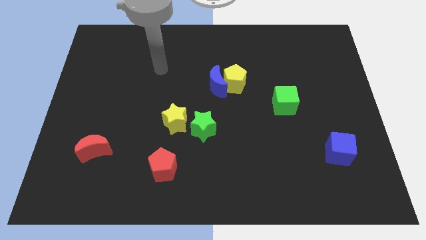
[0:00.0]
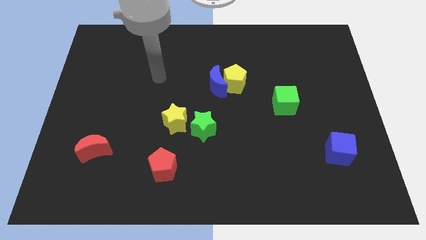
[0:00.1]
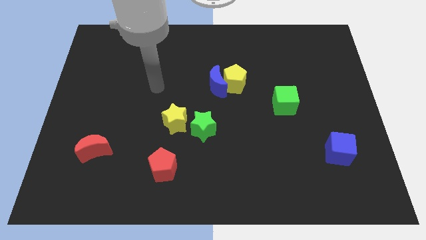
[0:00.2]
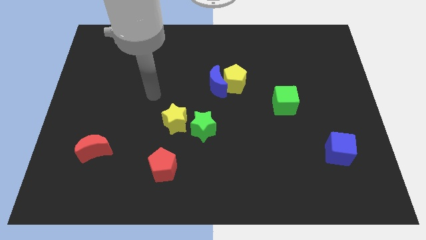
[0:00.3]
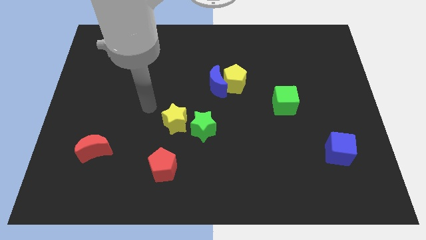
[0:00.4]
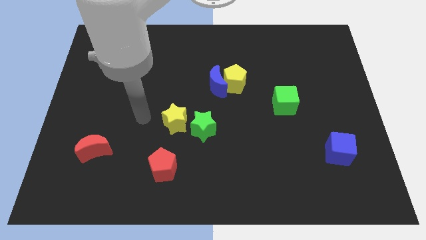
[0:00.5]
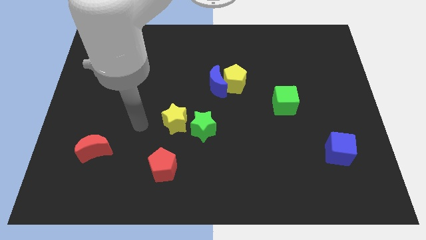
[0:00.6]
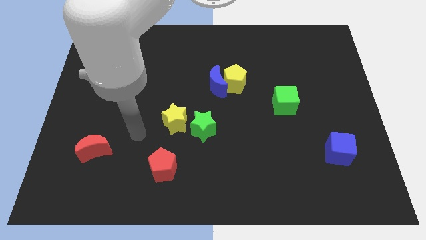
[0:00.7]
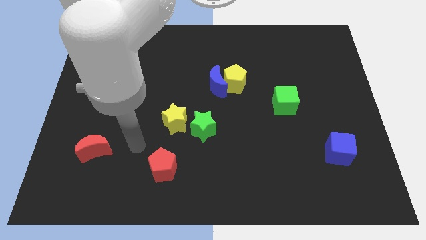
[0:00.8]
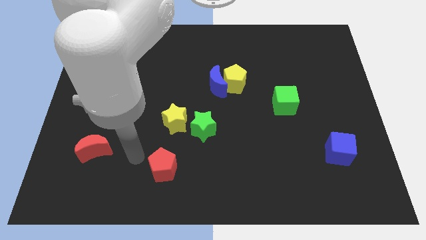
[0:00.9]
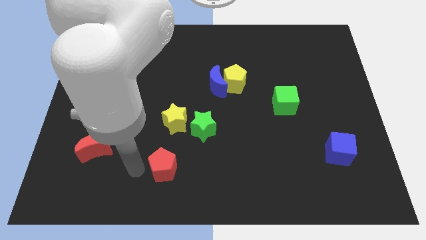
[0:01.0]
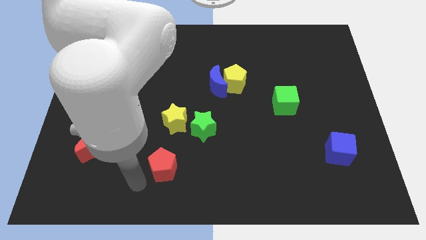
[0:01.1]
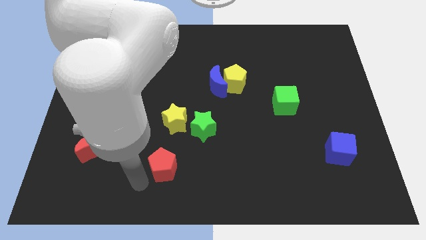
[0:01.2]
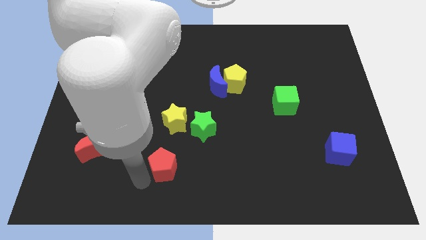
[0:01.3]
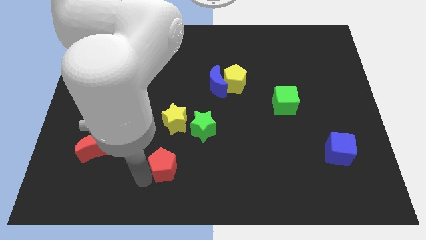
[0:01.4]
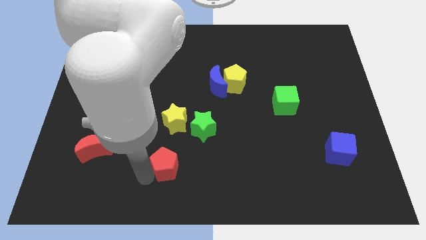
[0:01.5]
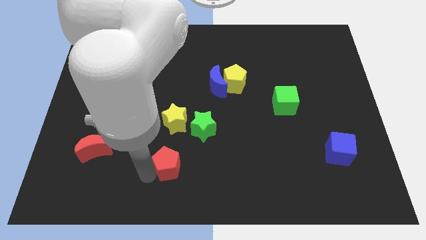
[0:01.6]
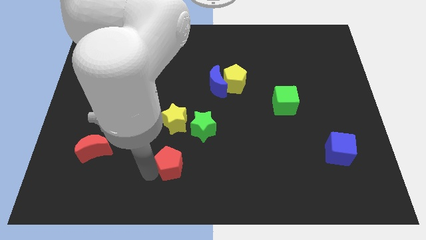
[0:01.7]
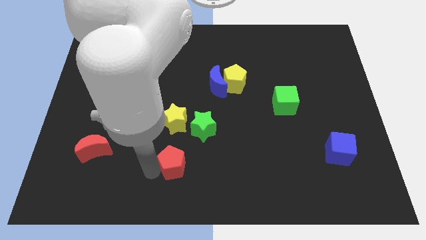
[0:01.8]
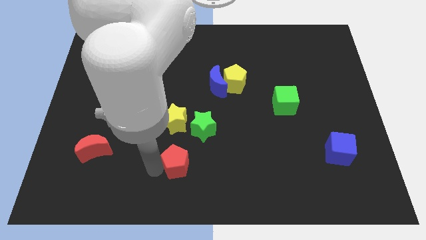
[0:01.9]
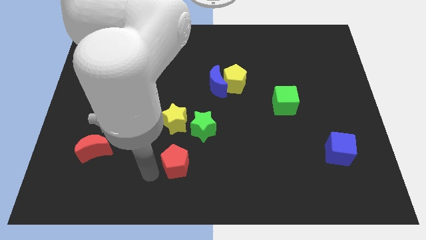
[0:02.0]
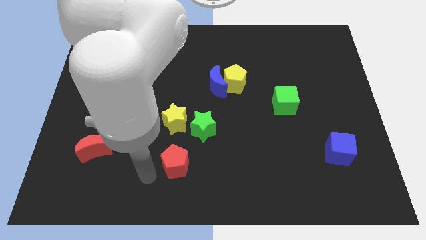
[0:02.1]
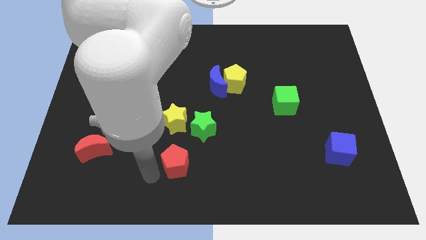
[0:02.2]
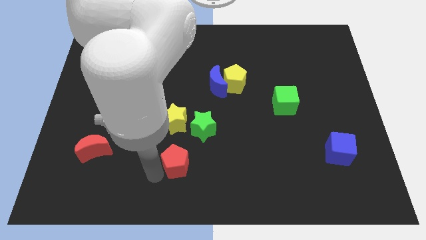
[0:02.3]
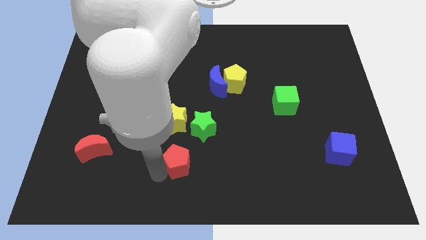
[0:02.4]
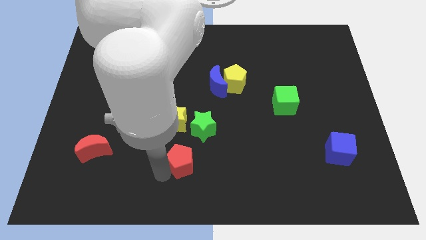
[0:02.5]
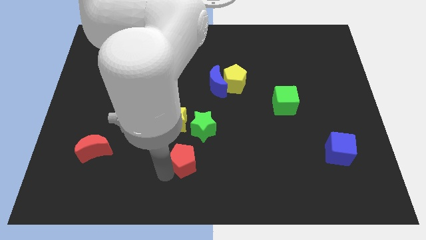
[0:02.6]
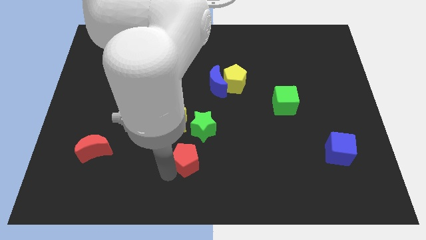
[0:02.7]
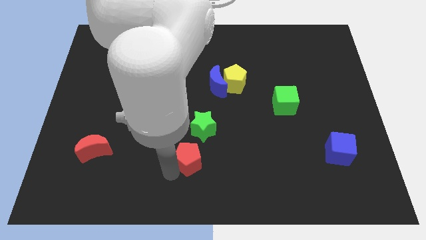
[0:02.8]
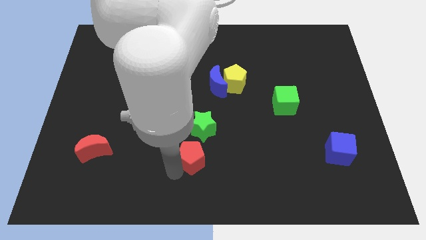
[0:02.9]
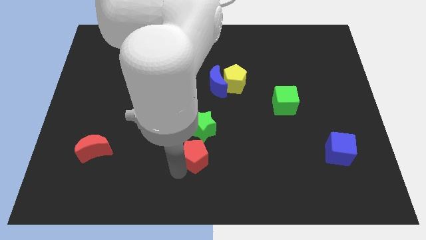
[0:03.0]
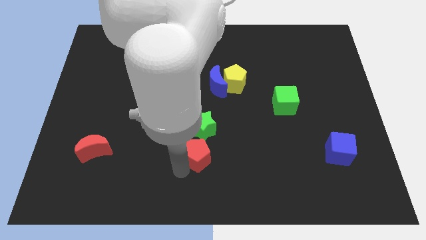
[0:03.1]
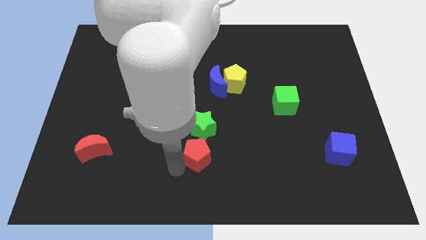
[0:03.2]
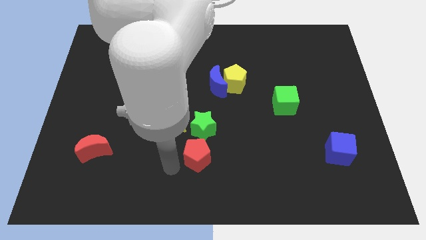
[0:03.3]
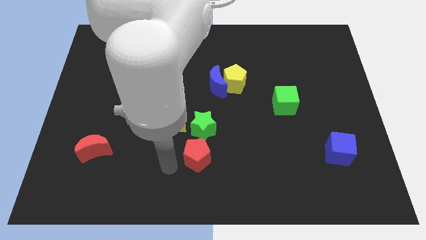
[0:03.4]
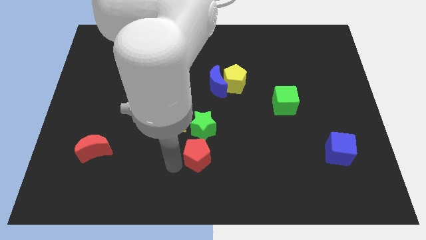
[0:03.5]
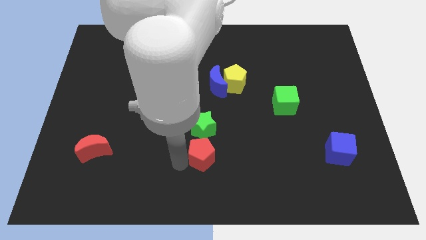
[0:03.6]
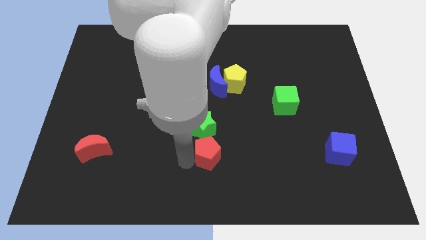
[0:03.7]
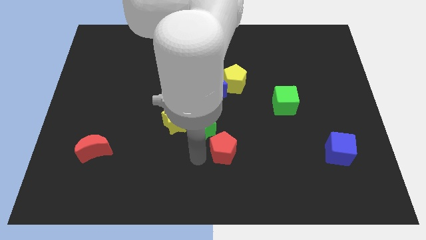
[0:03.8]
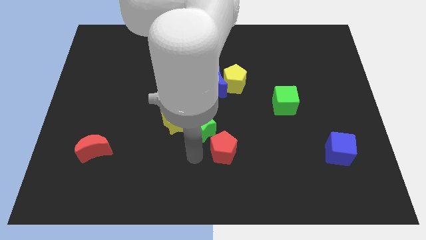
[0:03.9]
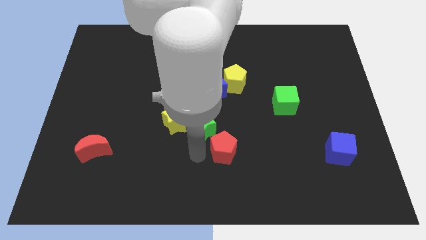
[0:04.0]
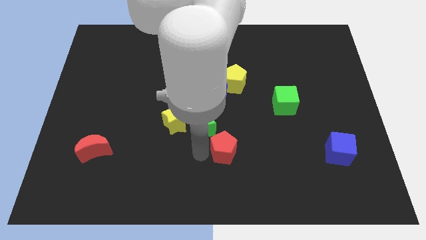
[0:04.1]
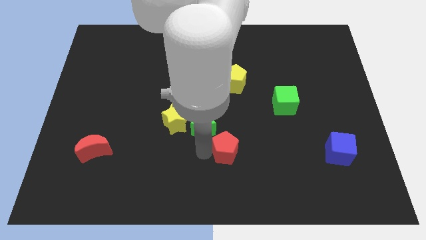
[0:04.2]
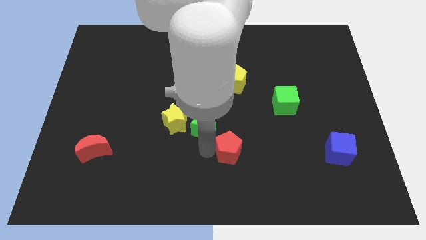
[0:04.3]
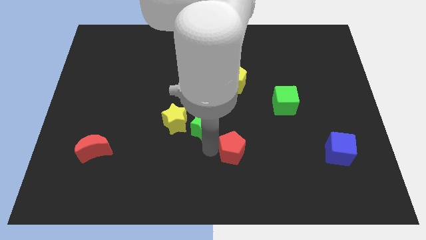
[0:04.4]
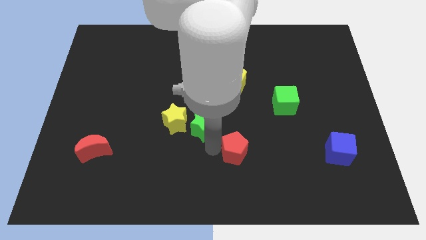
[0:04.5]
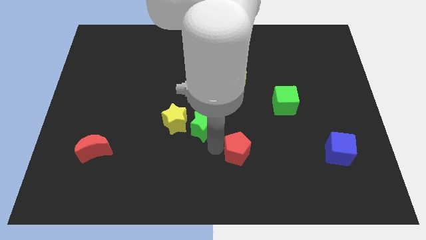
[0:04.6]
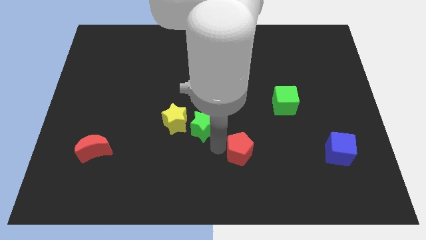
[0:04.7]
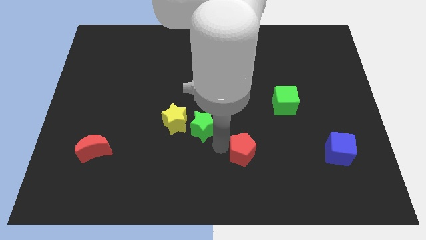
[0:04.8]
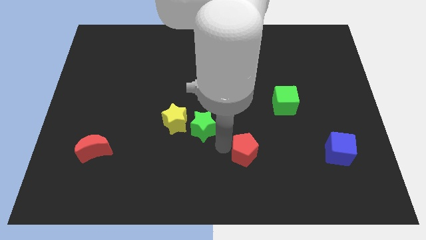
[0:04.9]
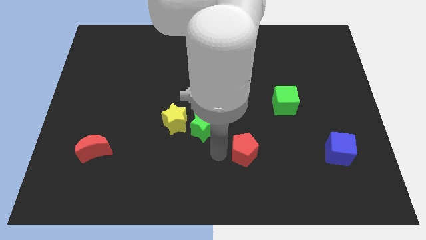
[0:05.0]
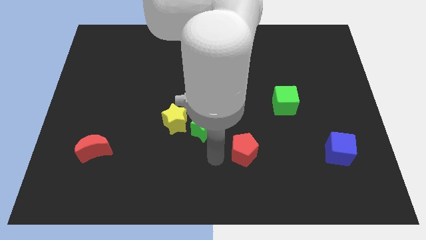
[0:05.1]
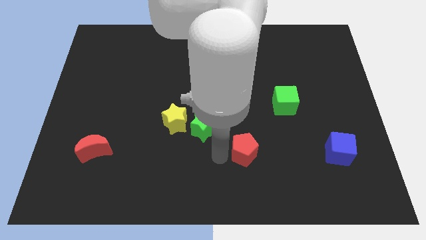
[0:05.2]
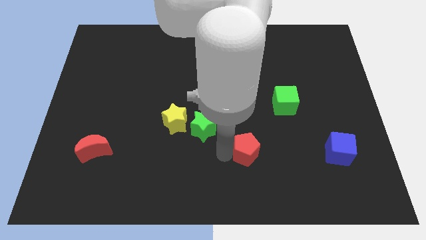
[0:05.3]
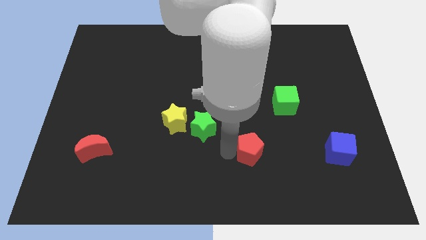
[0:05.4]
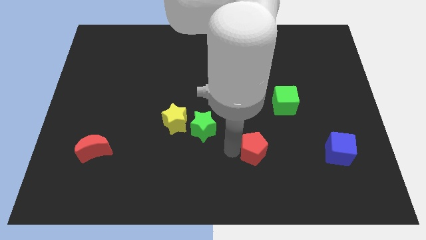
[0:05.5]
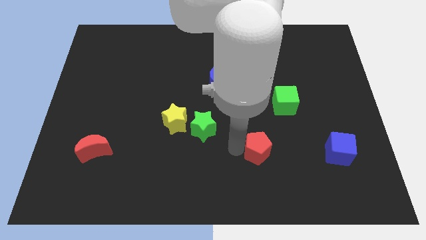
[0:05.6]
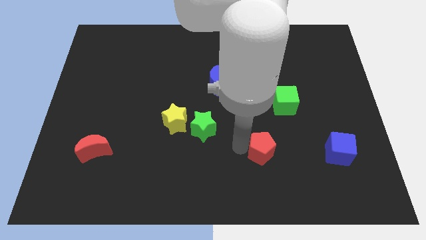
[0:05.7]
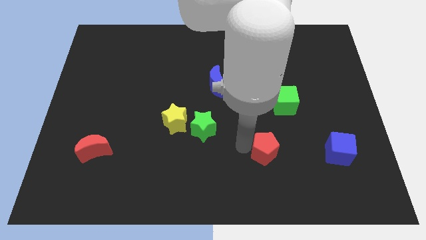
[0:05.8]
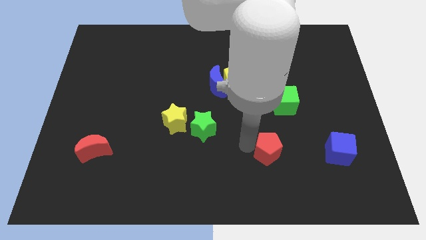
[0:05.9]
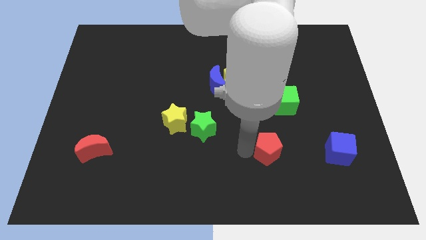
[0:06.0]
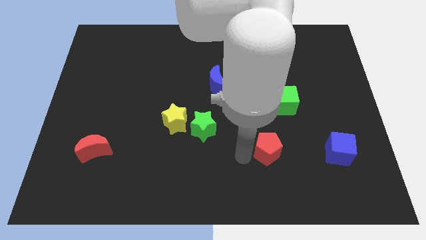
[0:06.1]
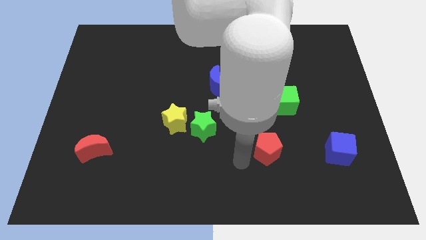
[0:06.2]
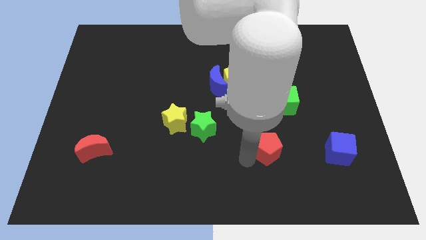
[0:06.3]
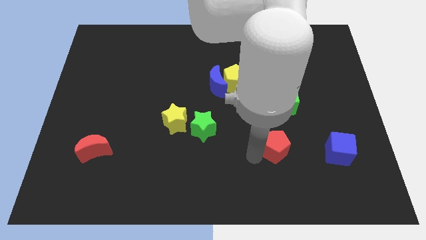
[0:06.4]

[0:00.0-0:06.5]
put the red pentagon to the bottom of the green cube

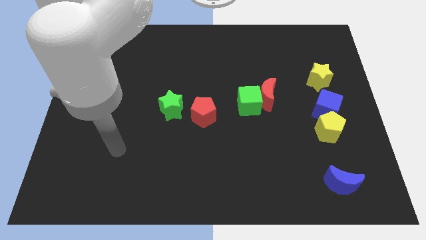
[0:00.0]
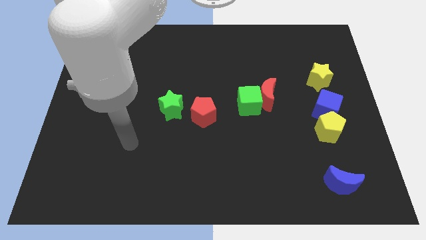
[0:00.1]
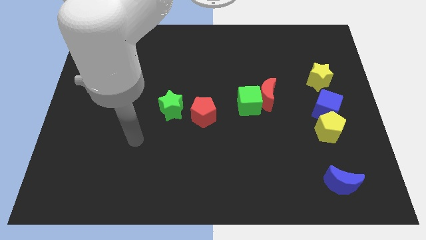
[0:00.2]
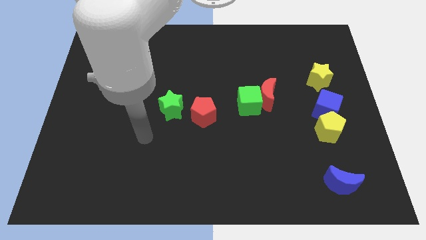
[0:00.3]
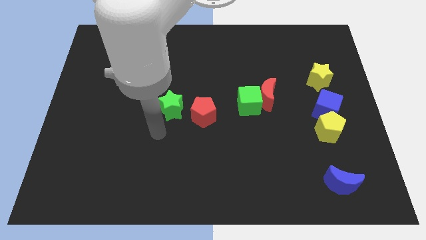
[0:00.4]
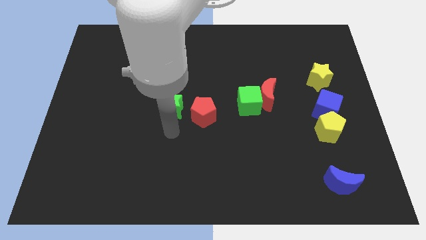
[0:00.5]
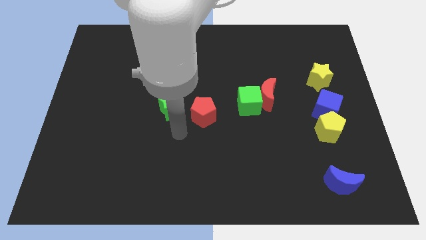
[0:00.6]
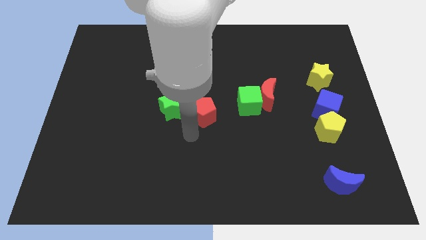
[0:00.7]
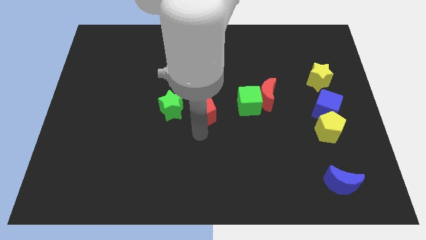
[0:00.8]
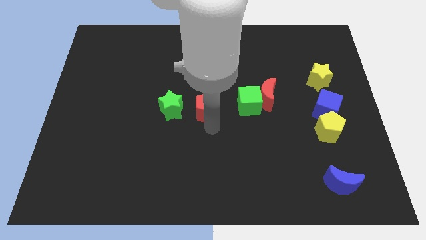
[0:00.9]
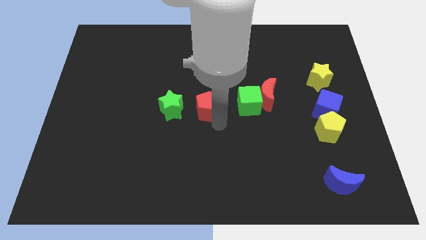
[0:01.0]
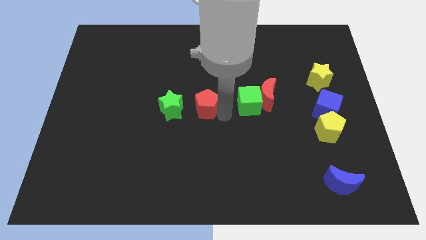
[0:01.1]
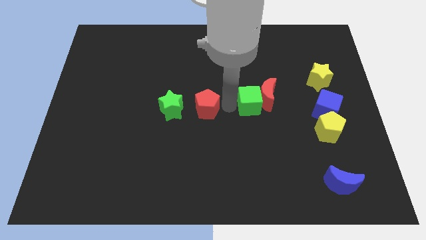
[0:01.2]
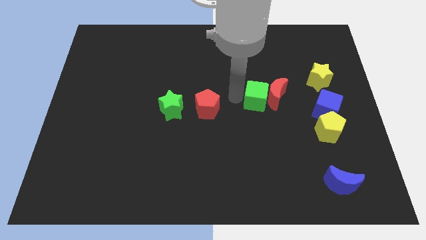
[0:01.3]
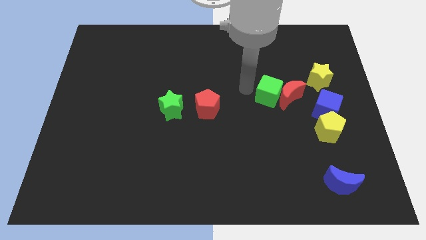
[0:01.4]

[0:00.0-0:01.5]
push the red moon to the top left side of the yellow pentagon

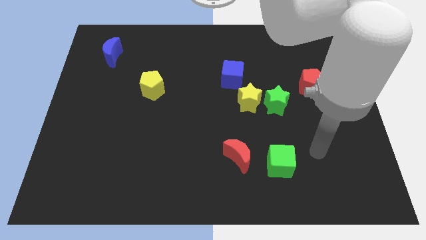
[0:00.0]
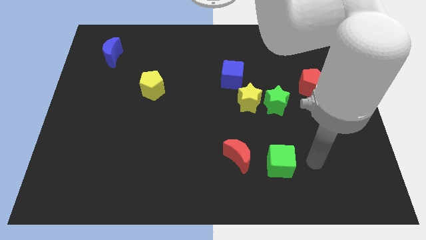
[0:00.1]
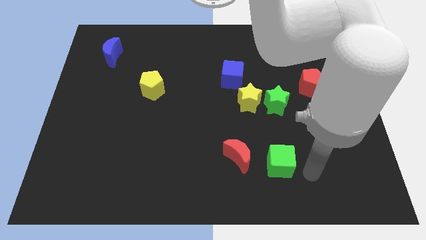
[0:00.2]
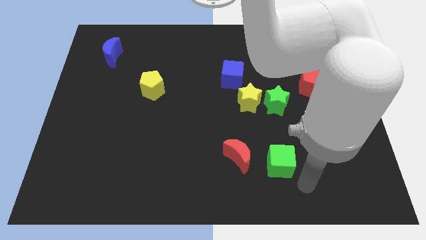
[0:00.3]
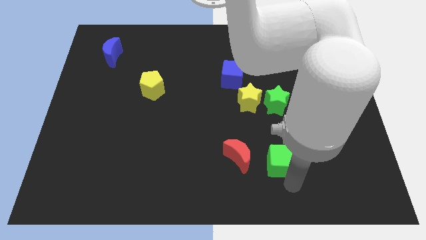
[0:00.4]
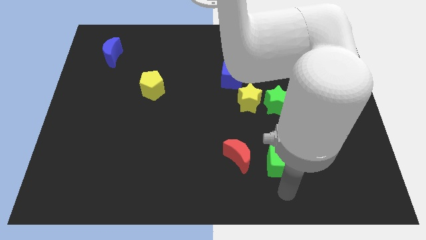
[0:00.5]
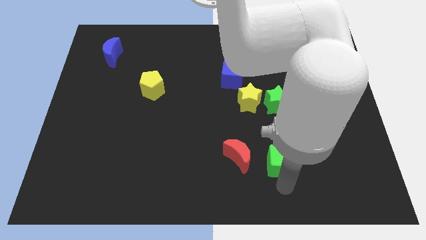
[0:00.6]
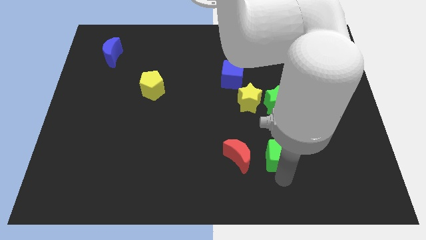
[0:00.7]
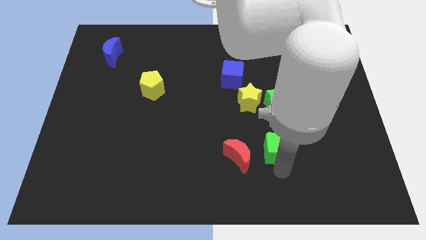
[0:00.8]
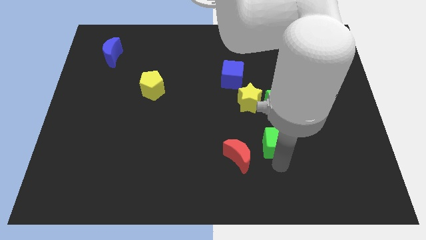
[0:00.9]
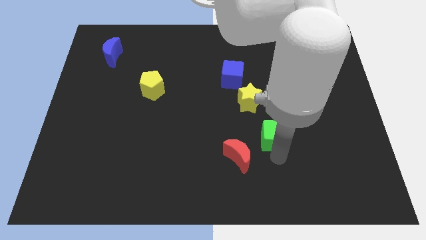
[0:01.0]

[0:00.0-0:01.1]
slide the green cube to the bottom right of the yellow star
